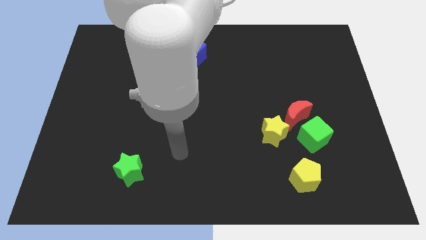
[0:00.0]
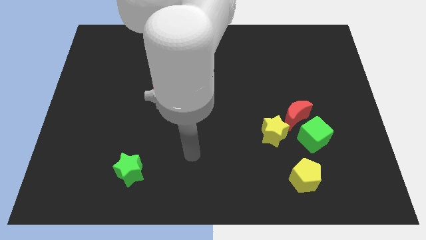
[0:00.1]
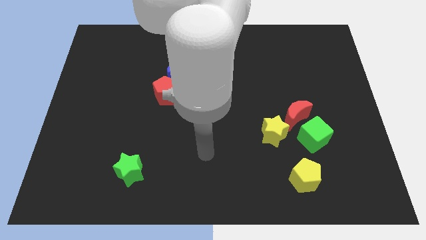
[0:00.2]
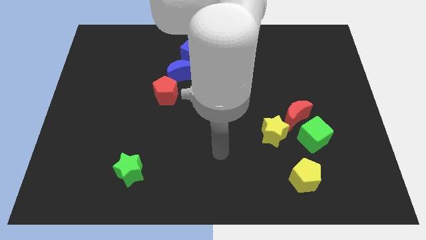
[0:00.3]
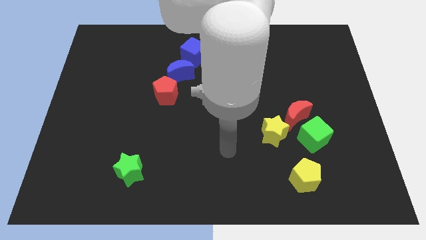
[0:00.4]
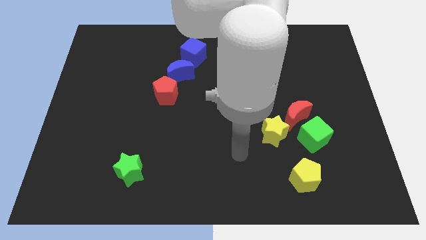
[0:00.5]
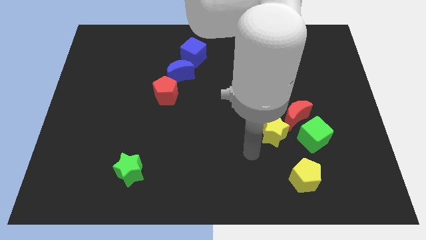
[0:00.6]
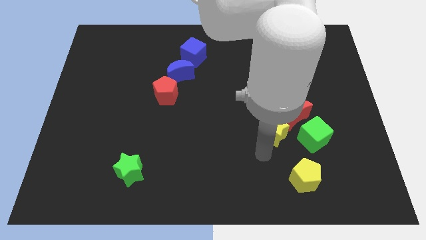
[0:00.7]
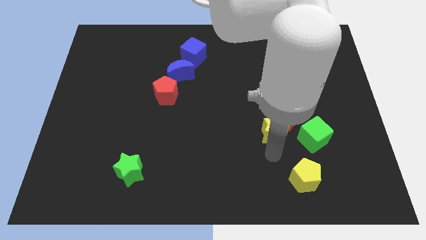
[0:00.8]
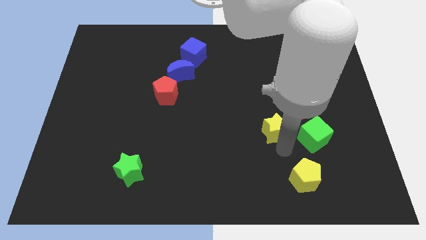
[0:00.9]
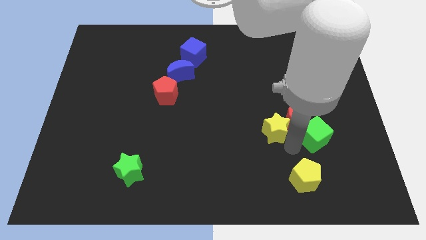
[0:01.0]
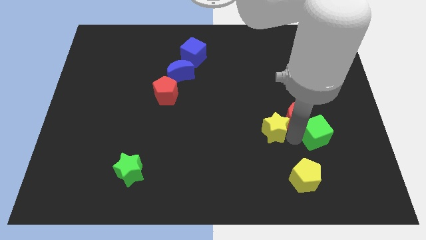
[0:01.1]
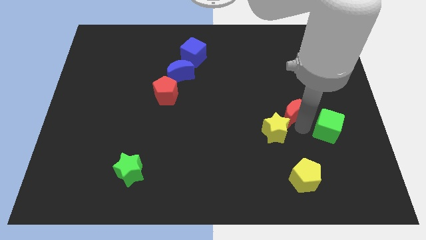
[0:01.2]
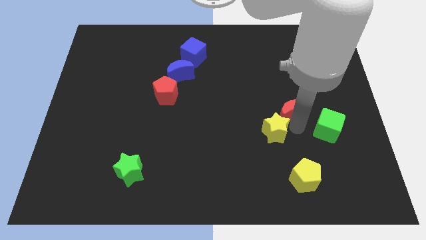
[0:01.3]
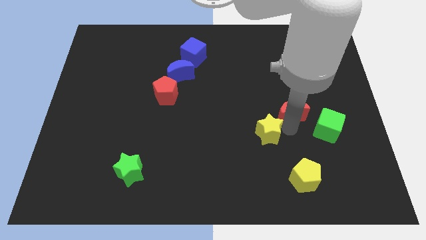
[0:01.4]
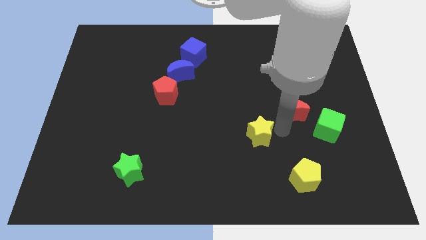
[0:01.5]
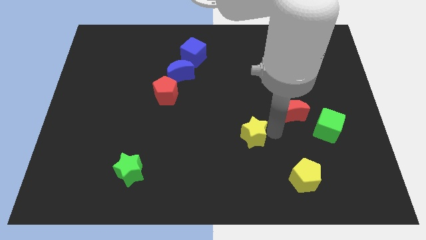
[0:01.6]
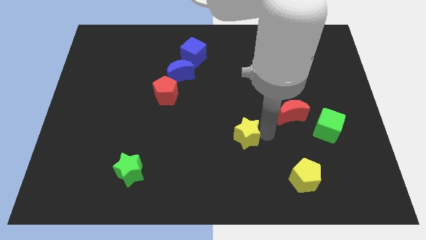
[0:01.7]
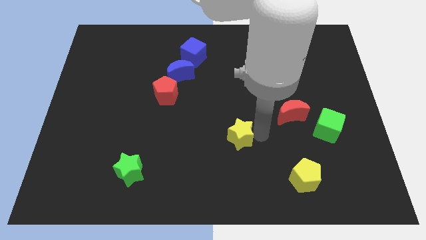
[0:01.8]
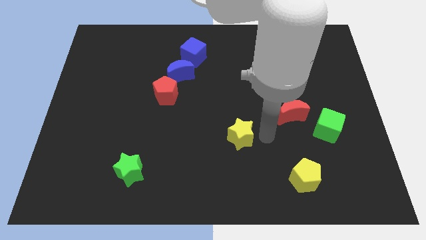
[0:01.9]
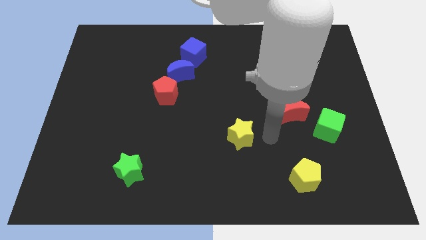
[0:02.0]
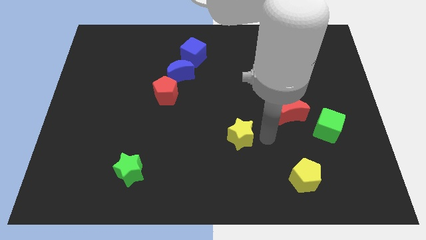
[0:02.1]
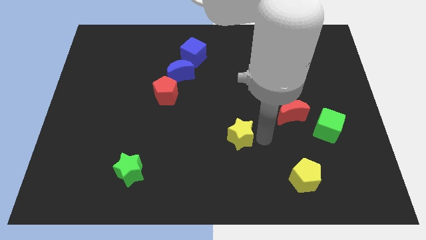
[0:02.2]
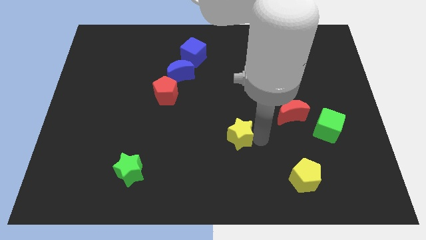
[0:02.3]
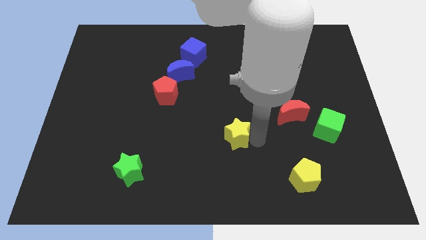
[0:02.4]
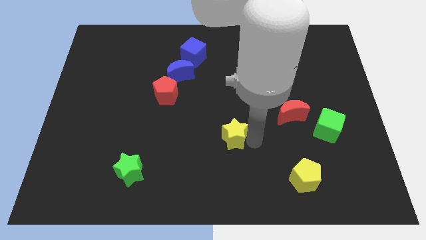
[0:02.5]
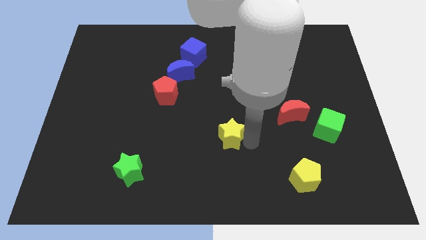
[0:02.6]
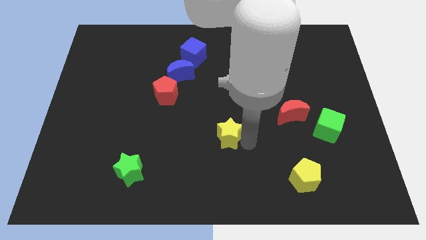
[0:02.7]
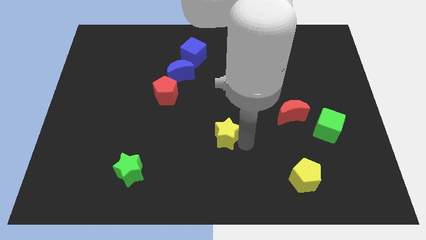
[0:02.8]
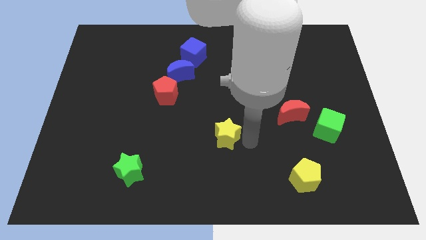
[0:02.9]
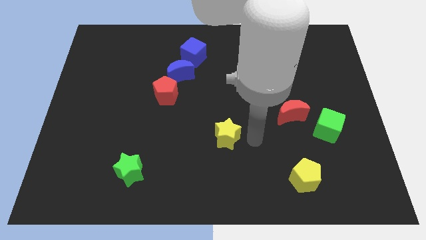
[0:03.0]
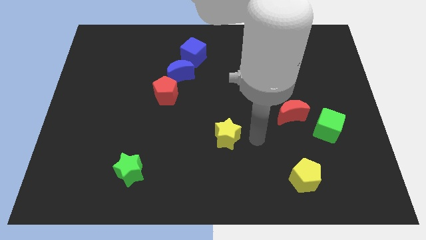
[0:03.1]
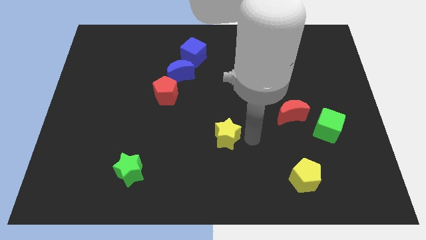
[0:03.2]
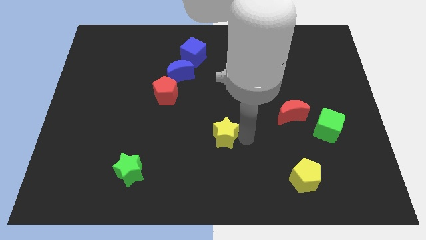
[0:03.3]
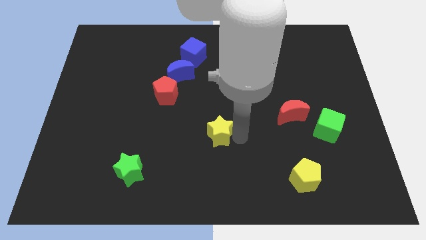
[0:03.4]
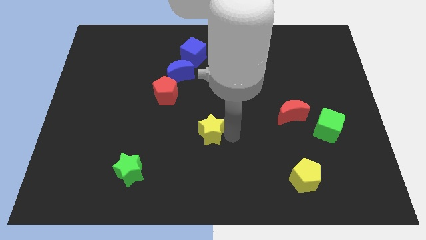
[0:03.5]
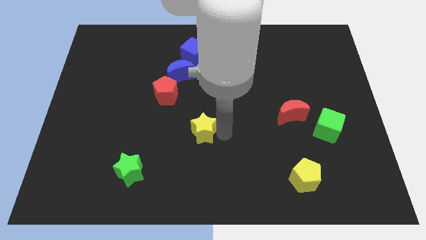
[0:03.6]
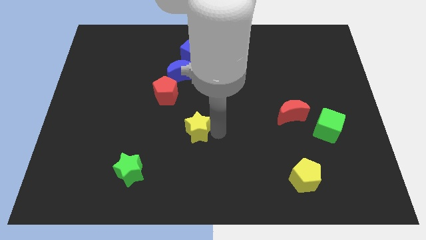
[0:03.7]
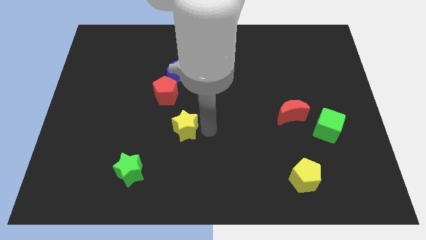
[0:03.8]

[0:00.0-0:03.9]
push the yellow star to the left

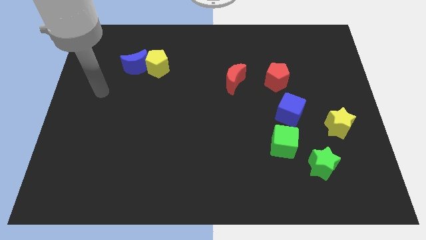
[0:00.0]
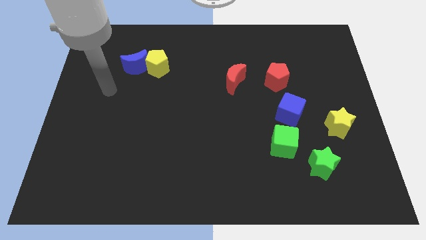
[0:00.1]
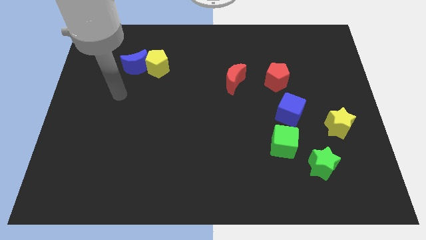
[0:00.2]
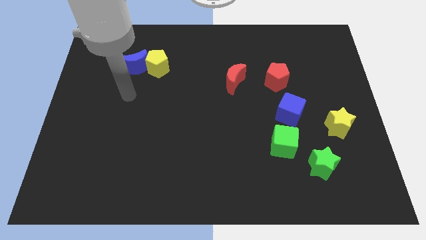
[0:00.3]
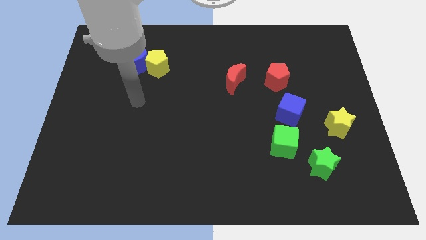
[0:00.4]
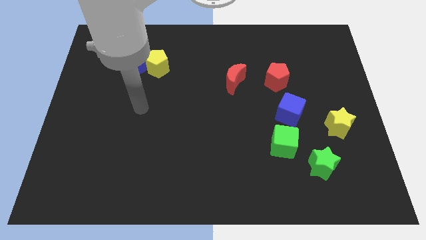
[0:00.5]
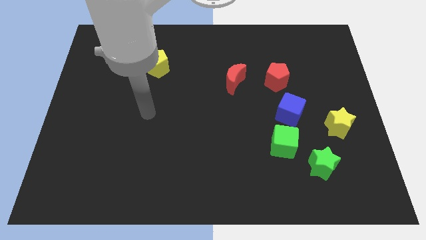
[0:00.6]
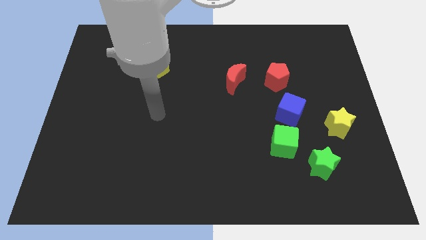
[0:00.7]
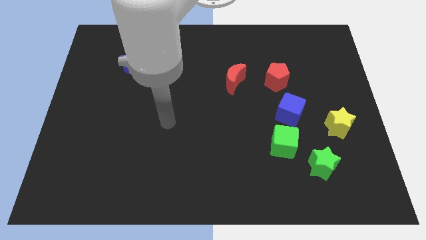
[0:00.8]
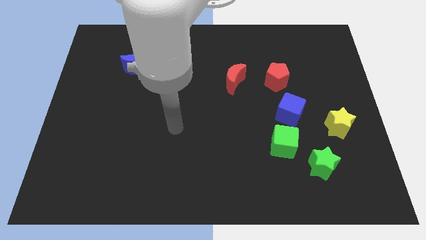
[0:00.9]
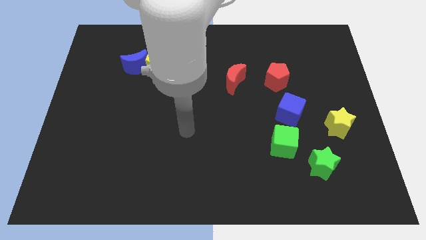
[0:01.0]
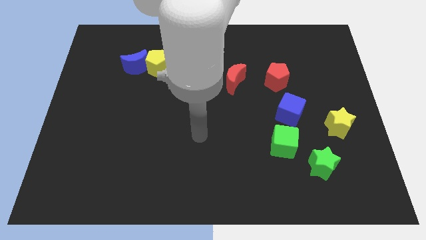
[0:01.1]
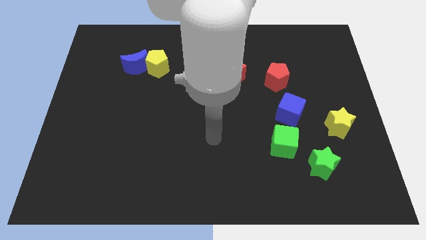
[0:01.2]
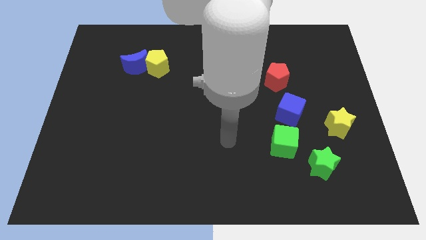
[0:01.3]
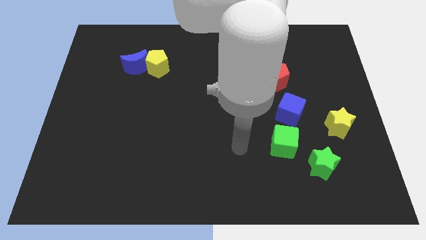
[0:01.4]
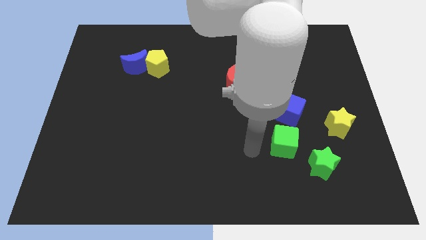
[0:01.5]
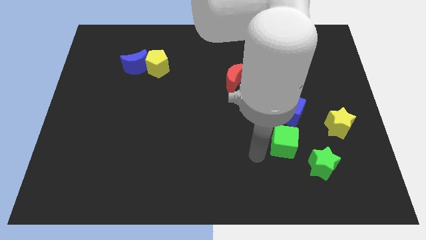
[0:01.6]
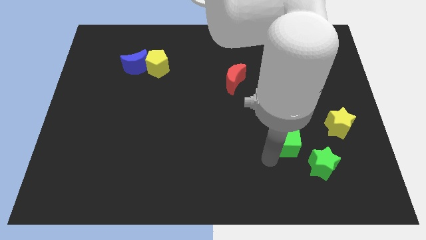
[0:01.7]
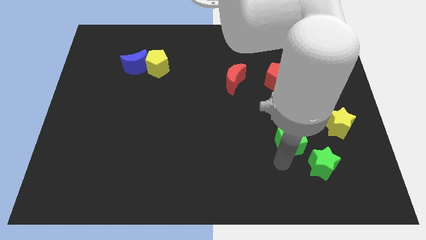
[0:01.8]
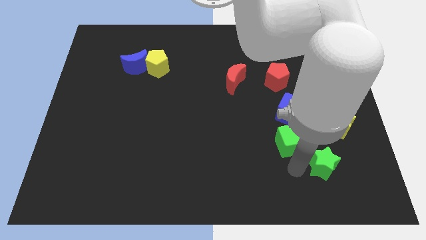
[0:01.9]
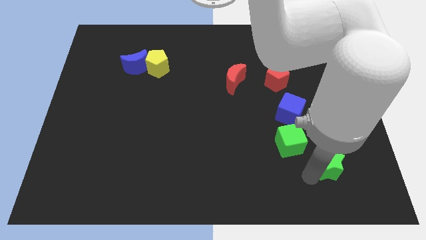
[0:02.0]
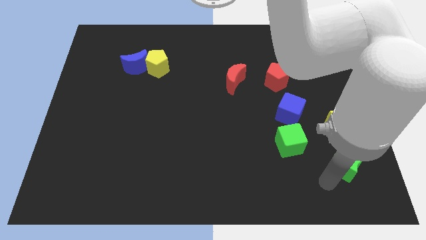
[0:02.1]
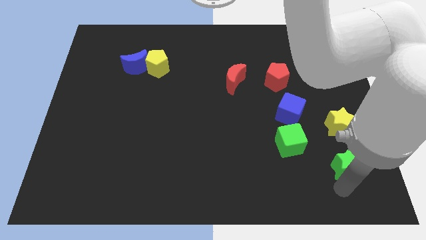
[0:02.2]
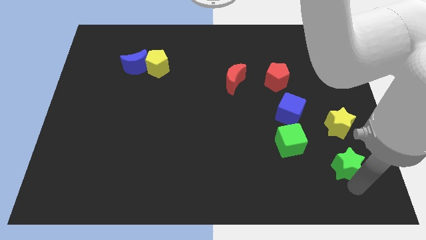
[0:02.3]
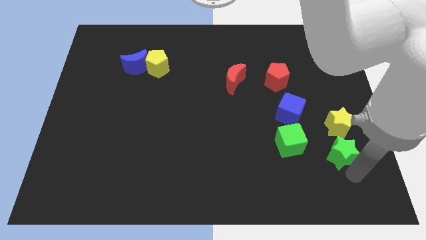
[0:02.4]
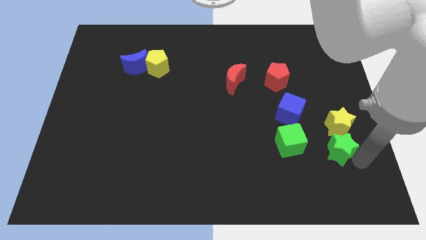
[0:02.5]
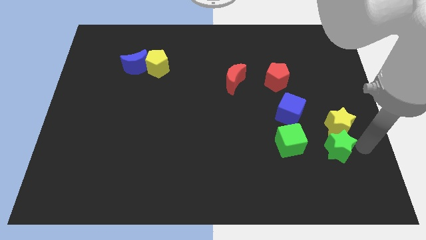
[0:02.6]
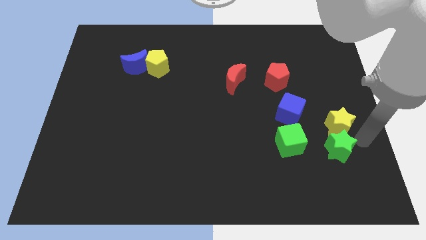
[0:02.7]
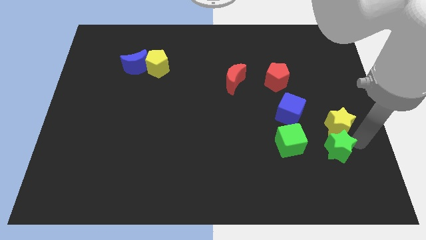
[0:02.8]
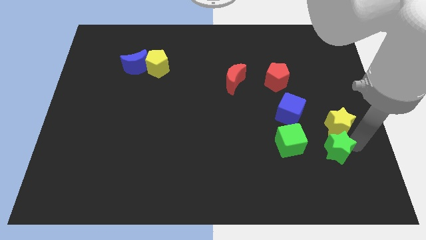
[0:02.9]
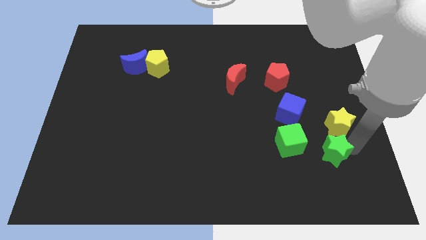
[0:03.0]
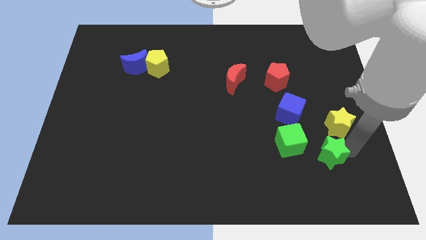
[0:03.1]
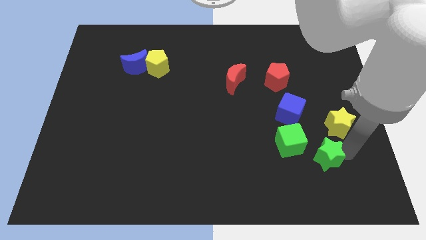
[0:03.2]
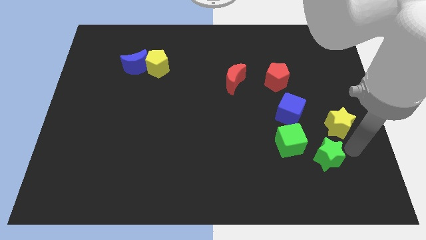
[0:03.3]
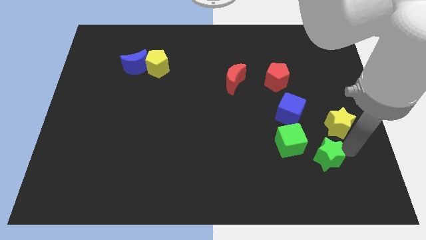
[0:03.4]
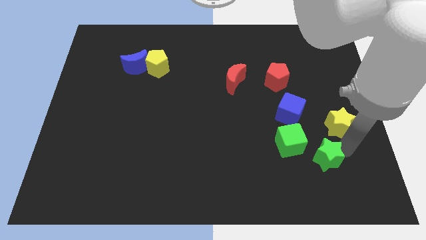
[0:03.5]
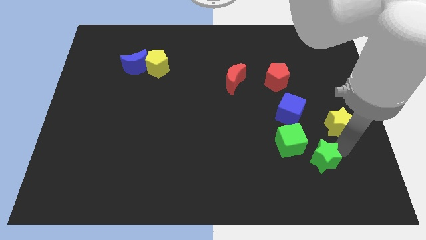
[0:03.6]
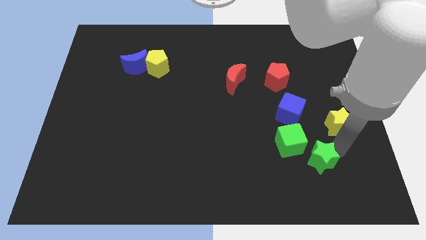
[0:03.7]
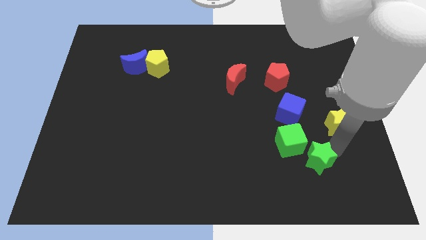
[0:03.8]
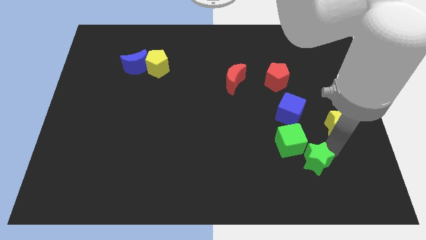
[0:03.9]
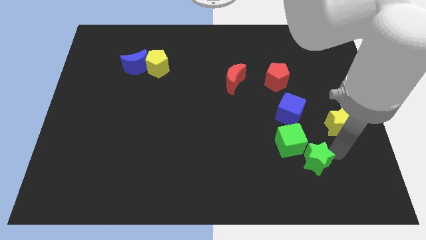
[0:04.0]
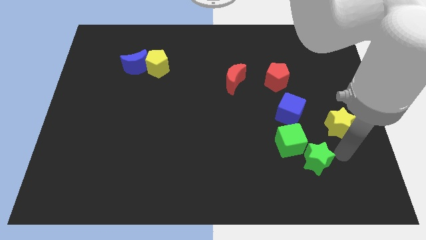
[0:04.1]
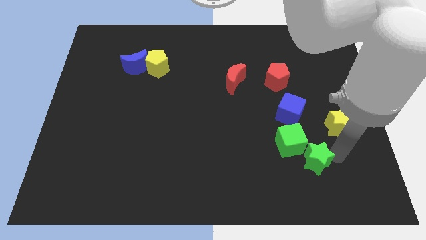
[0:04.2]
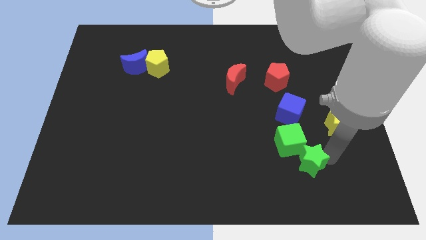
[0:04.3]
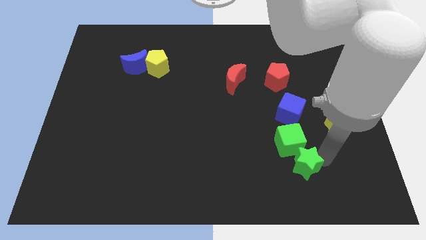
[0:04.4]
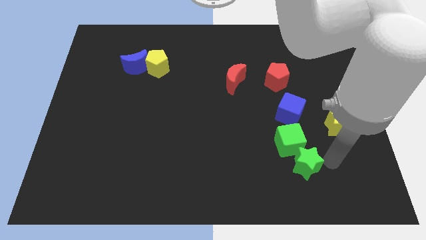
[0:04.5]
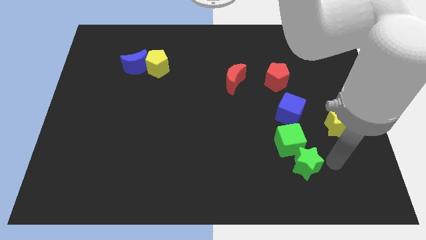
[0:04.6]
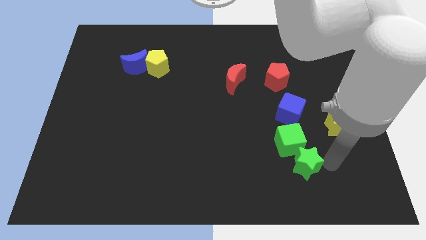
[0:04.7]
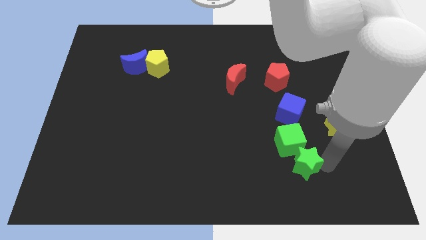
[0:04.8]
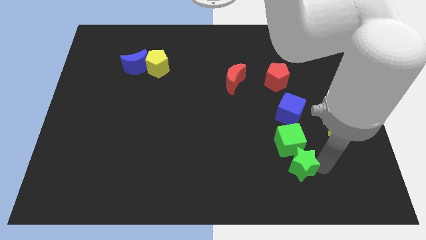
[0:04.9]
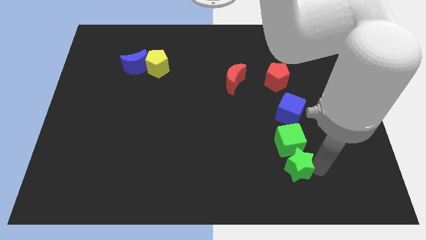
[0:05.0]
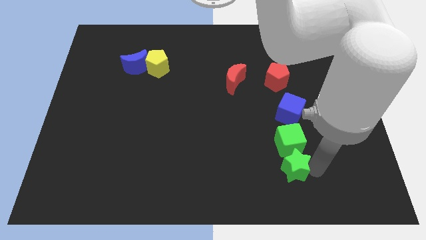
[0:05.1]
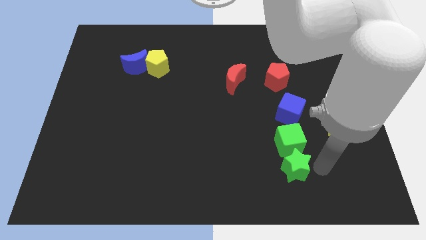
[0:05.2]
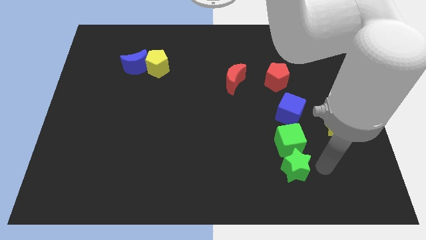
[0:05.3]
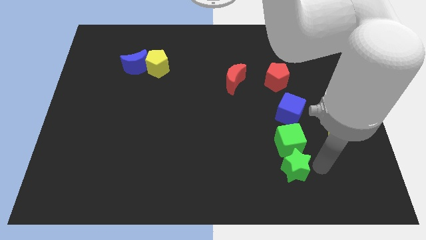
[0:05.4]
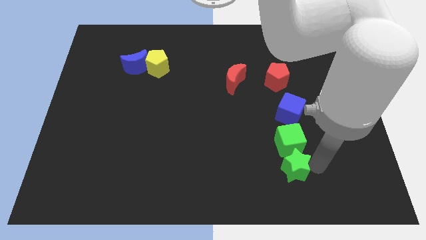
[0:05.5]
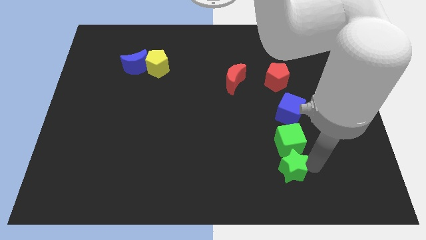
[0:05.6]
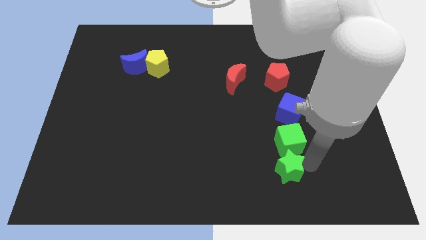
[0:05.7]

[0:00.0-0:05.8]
move the green star slightly to the left
